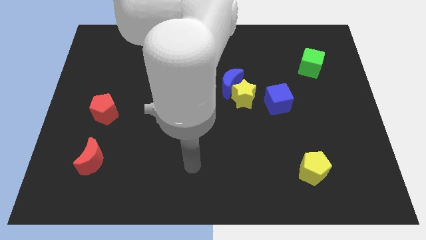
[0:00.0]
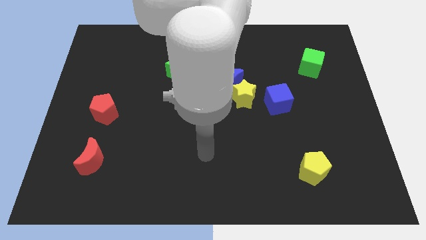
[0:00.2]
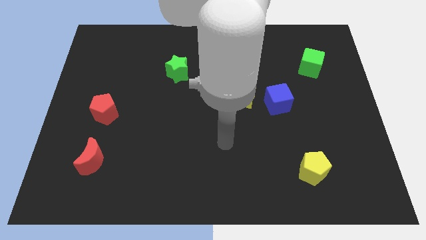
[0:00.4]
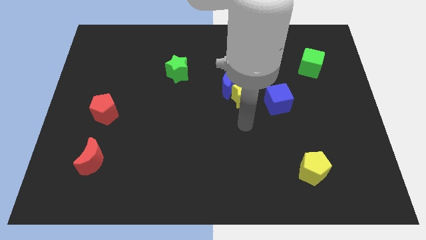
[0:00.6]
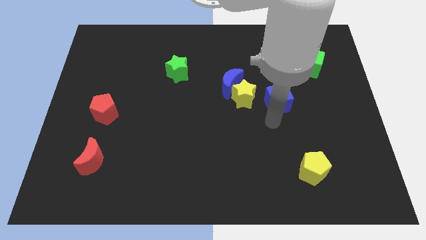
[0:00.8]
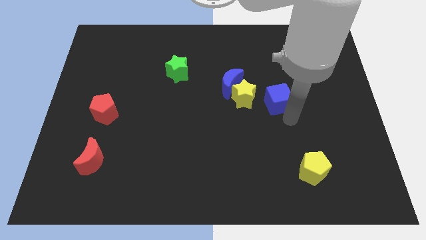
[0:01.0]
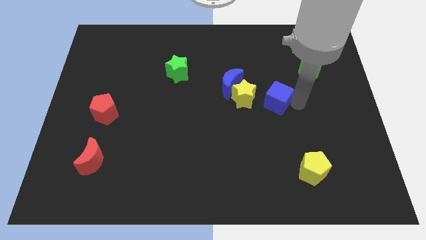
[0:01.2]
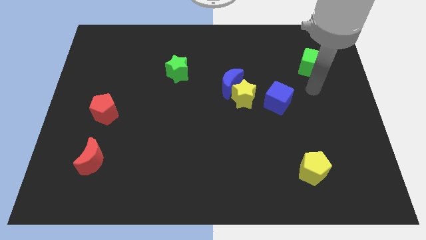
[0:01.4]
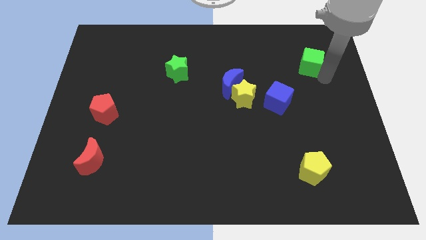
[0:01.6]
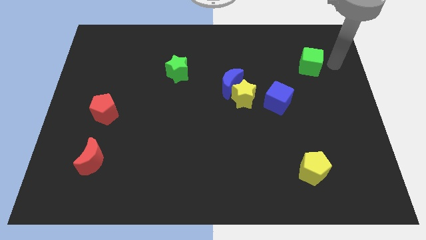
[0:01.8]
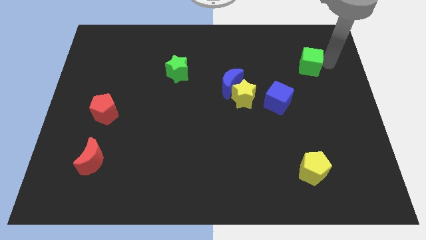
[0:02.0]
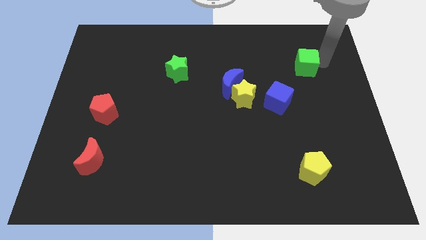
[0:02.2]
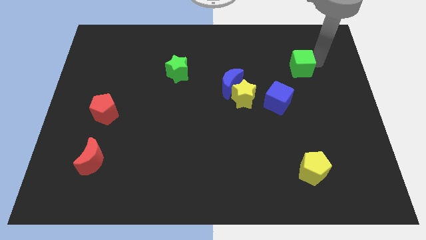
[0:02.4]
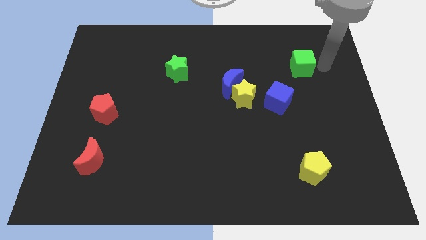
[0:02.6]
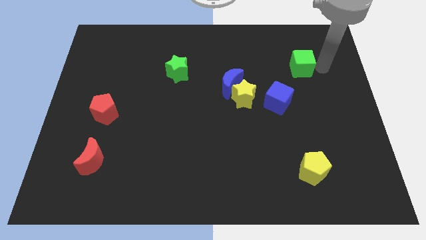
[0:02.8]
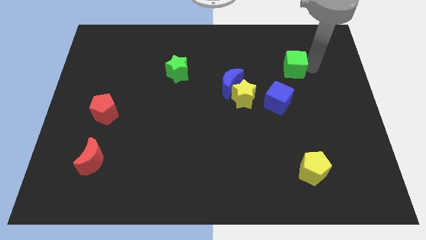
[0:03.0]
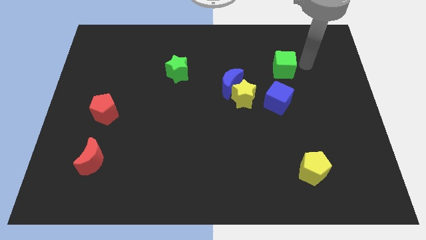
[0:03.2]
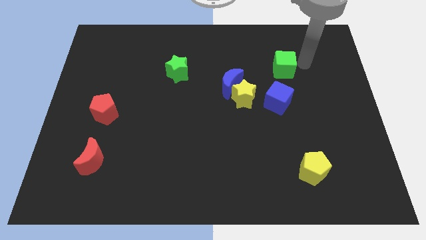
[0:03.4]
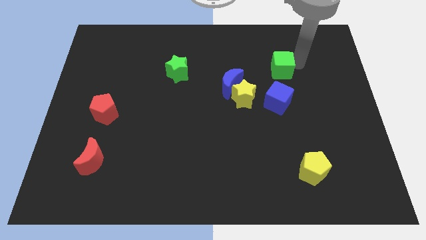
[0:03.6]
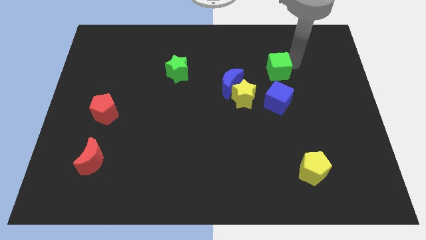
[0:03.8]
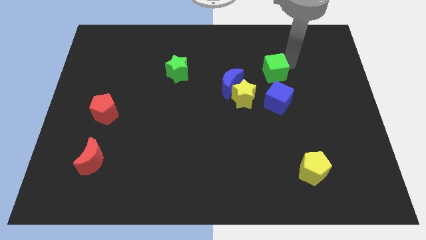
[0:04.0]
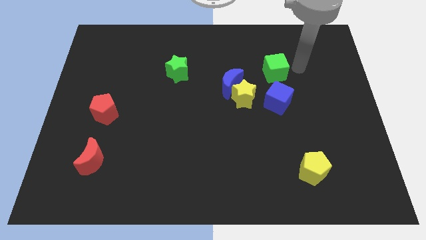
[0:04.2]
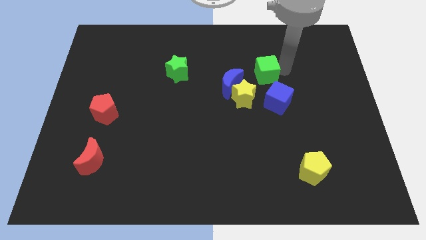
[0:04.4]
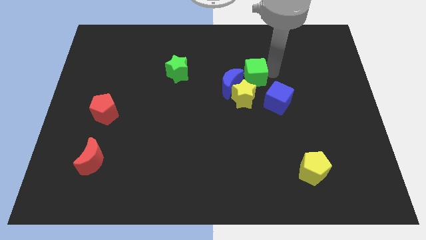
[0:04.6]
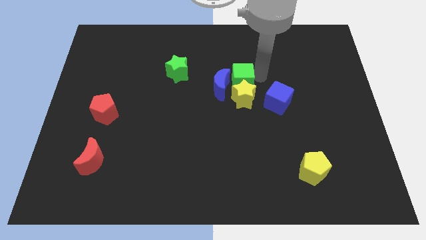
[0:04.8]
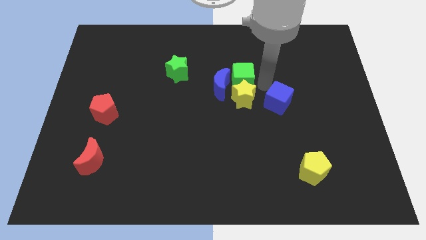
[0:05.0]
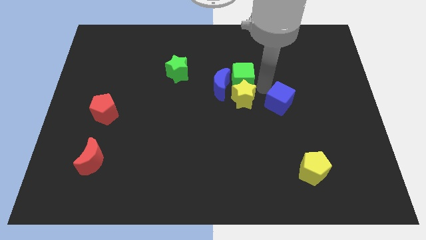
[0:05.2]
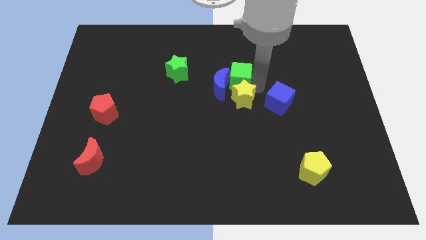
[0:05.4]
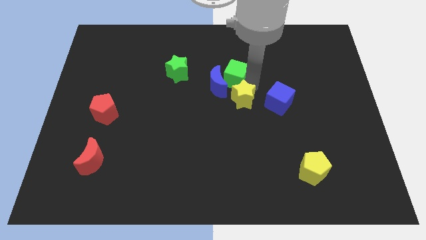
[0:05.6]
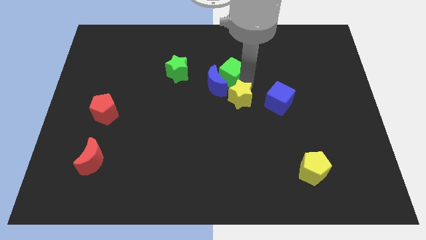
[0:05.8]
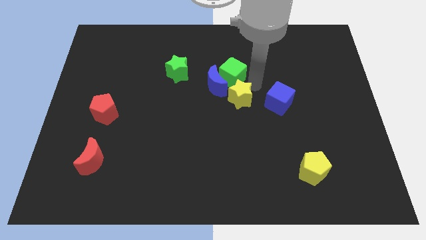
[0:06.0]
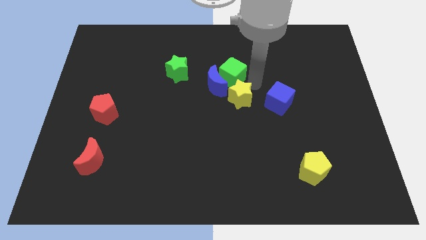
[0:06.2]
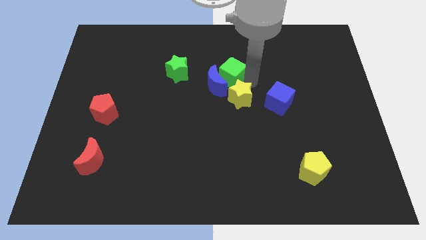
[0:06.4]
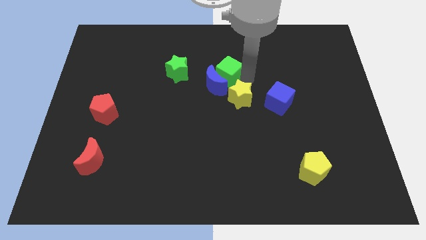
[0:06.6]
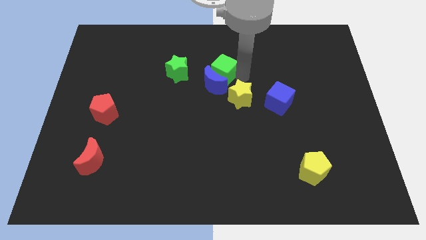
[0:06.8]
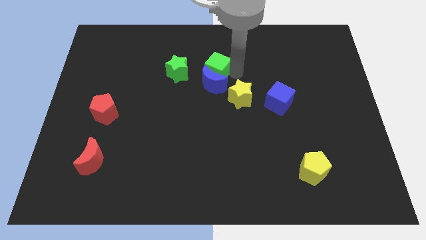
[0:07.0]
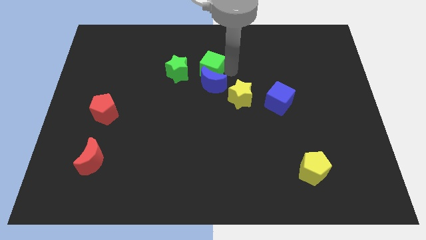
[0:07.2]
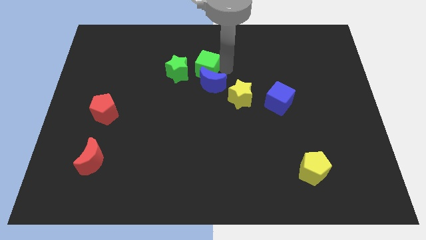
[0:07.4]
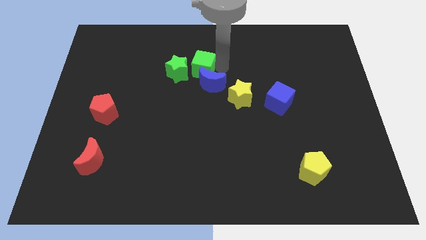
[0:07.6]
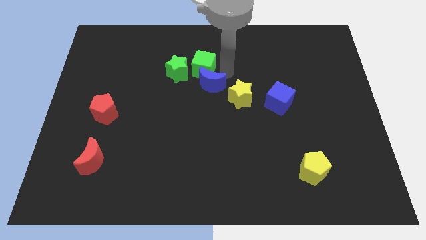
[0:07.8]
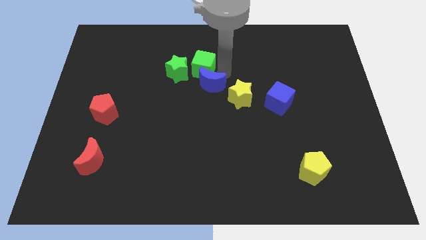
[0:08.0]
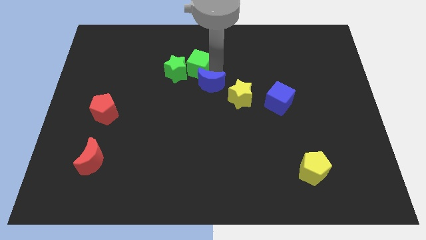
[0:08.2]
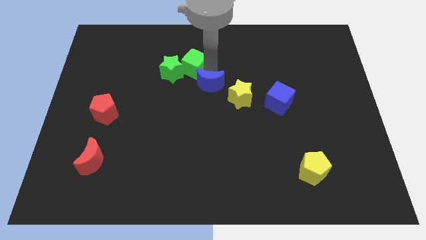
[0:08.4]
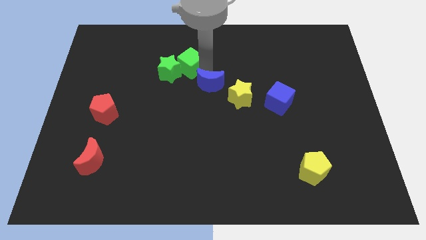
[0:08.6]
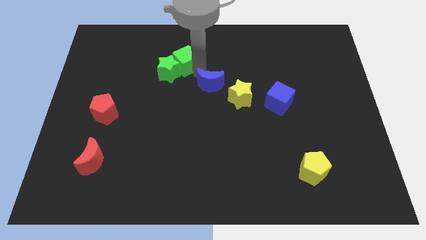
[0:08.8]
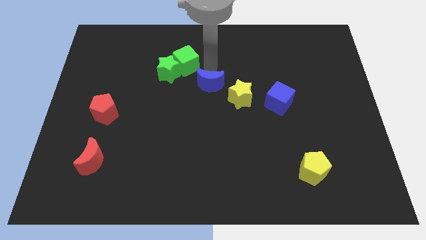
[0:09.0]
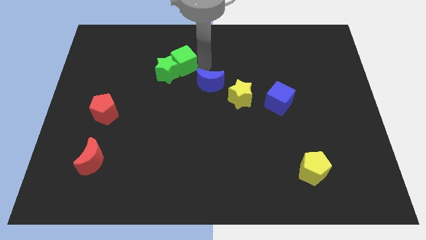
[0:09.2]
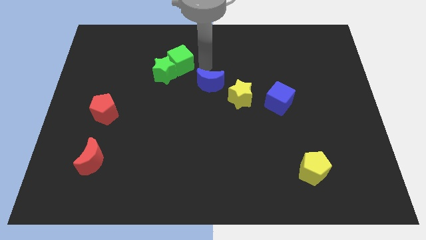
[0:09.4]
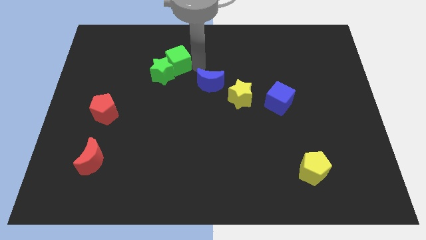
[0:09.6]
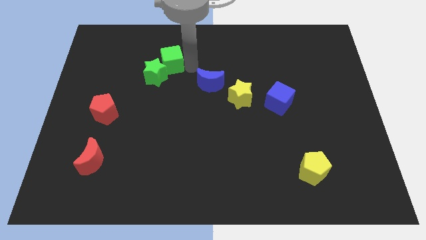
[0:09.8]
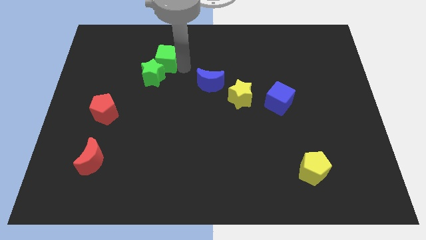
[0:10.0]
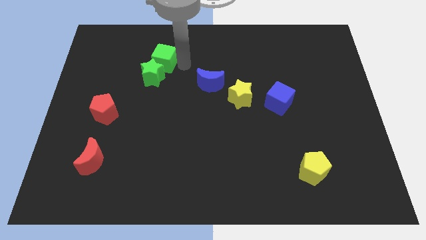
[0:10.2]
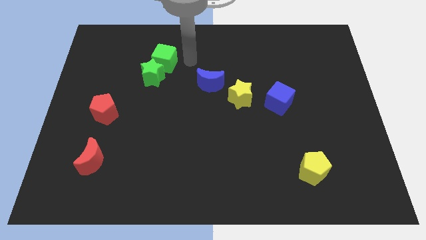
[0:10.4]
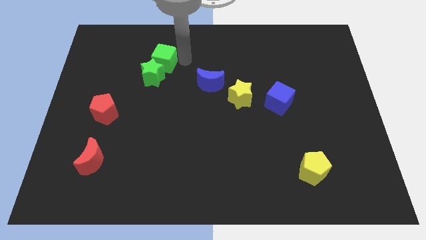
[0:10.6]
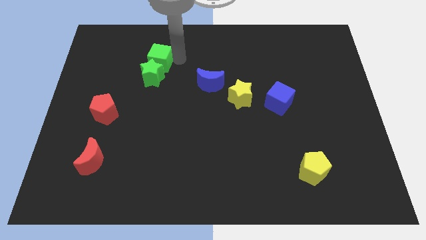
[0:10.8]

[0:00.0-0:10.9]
put the green cube to the top left of the green star
